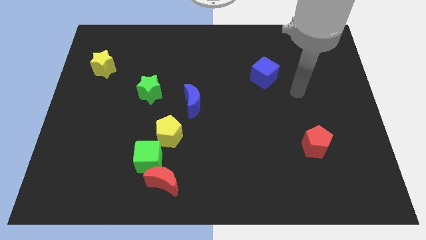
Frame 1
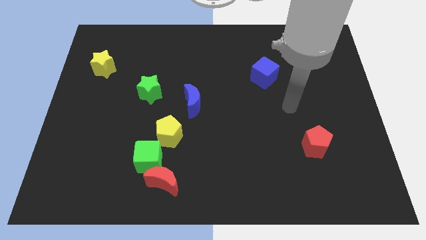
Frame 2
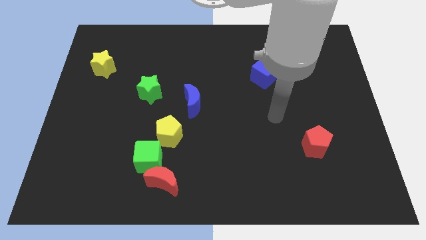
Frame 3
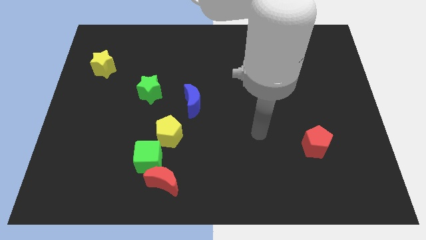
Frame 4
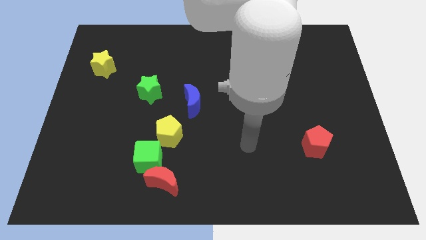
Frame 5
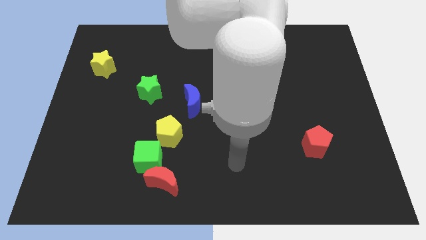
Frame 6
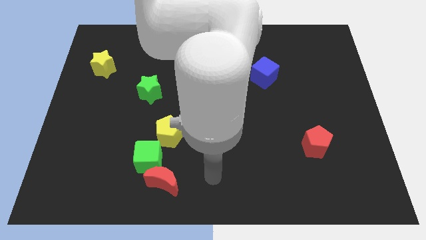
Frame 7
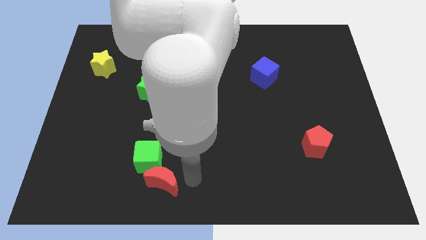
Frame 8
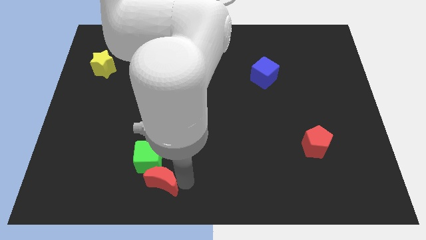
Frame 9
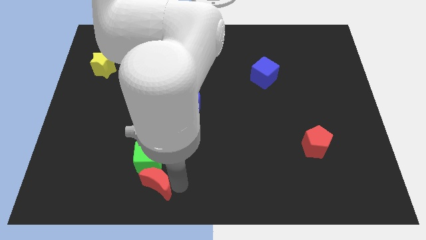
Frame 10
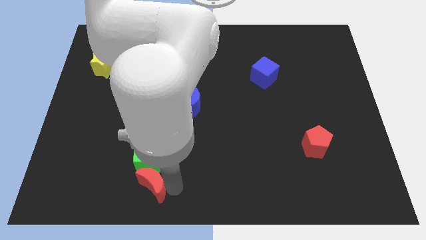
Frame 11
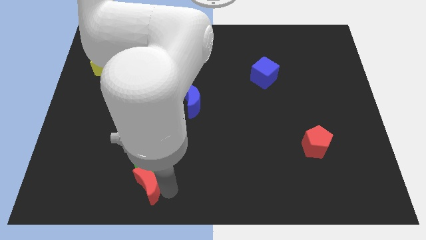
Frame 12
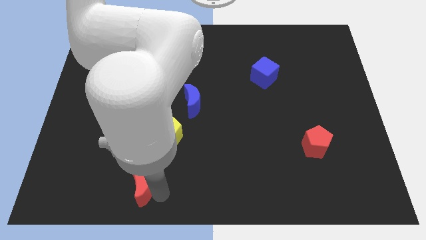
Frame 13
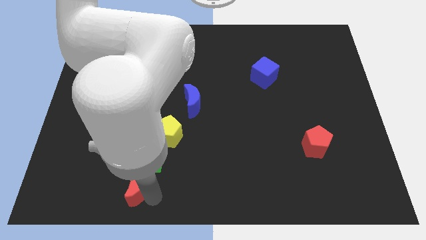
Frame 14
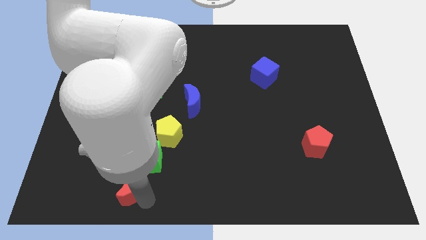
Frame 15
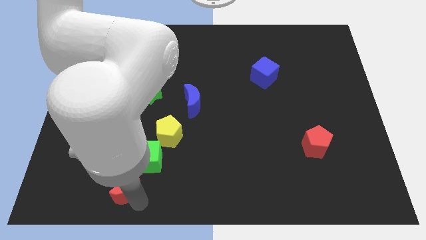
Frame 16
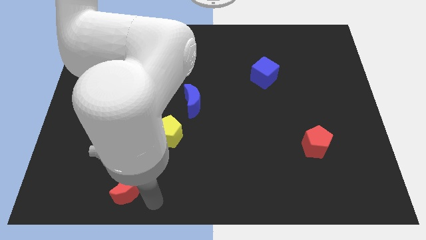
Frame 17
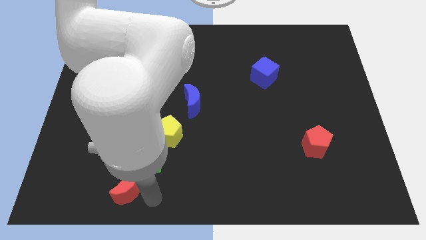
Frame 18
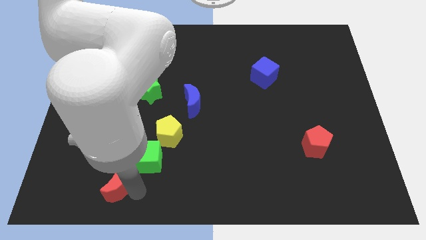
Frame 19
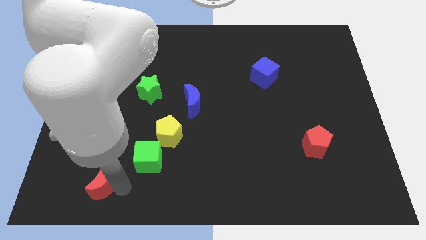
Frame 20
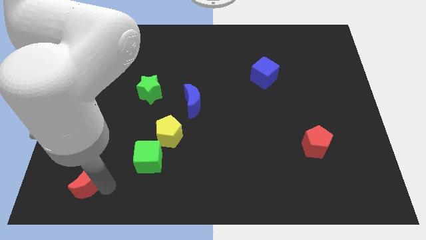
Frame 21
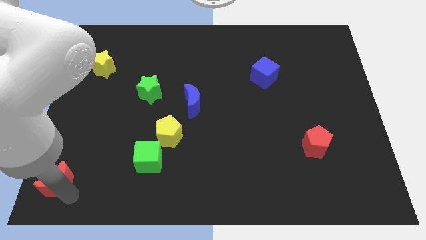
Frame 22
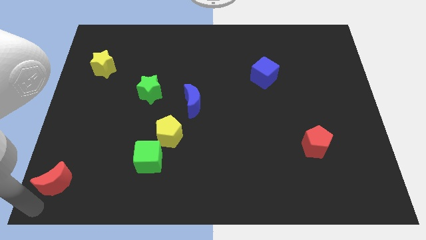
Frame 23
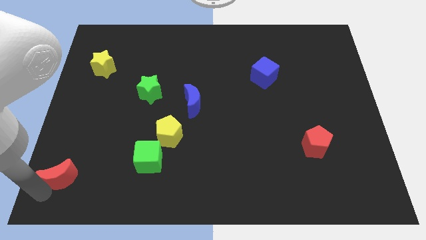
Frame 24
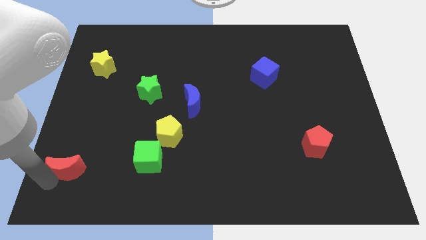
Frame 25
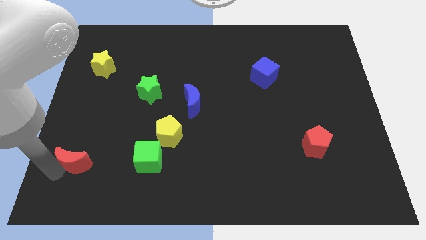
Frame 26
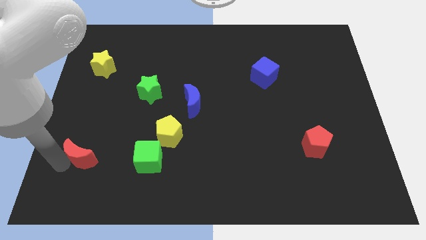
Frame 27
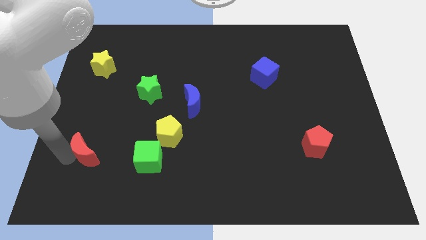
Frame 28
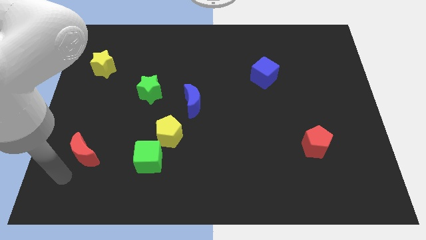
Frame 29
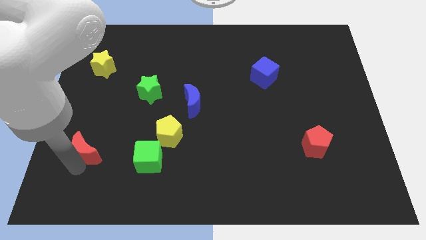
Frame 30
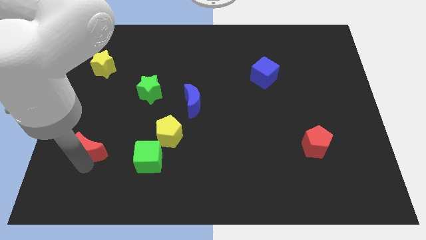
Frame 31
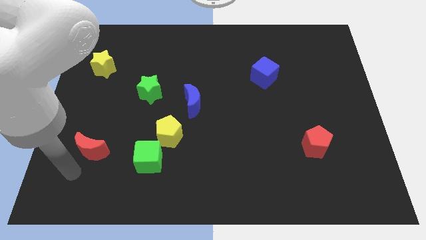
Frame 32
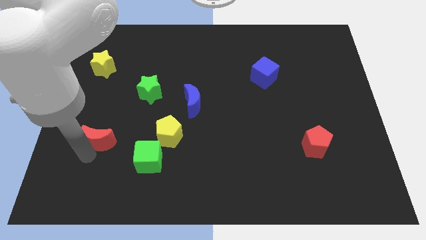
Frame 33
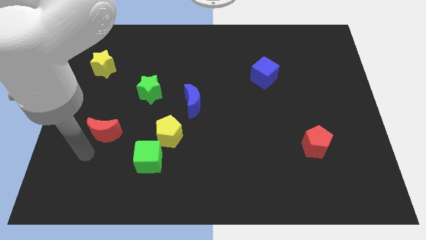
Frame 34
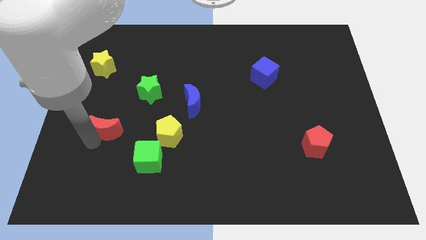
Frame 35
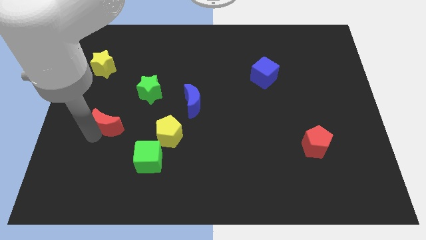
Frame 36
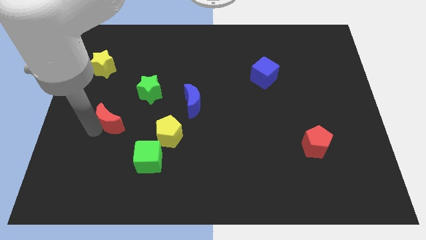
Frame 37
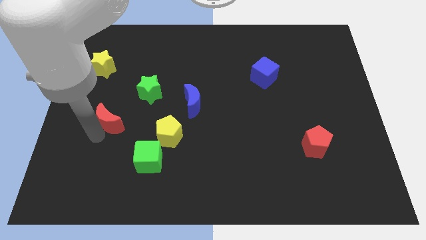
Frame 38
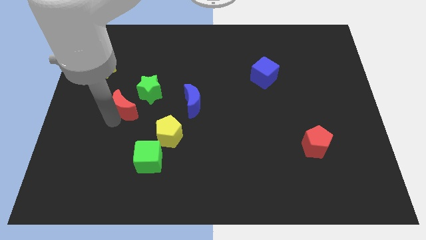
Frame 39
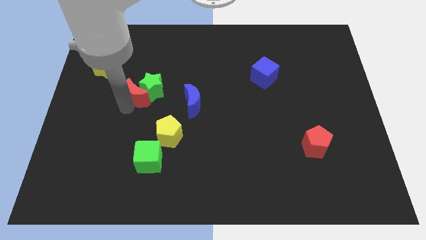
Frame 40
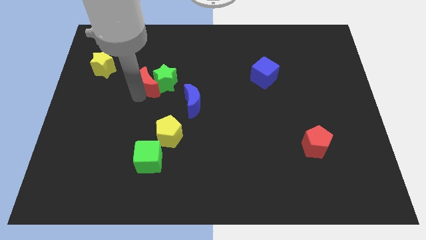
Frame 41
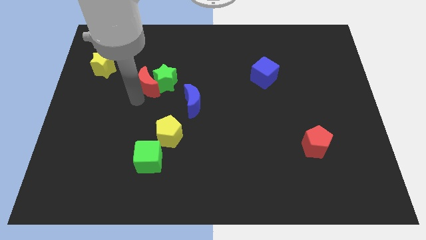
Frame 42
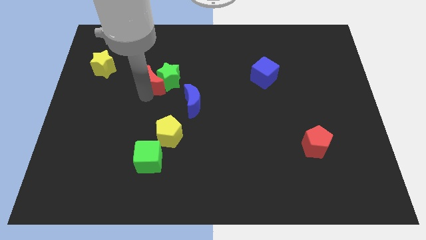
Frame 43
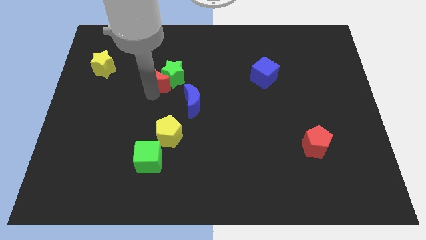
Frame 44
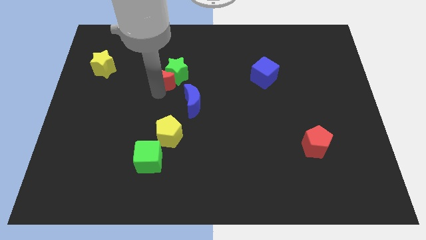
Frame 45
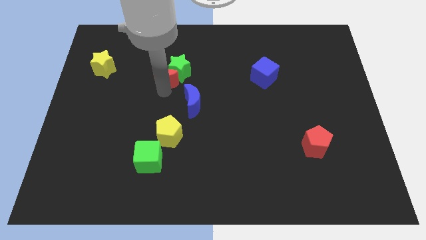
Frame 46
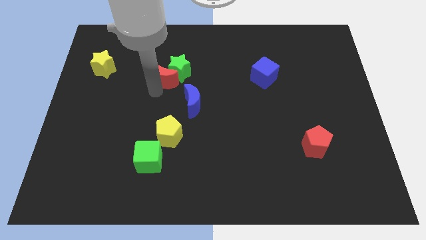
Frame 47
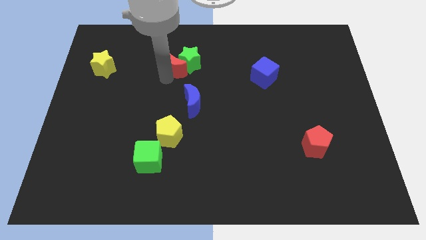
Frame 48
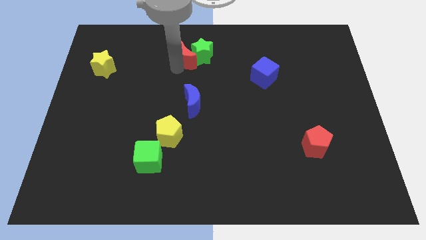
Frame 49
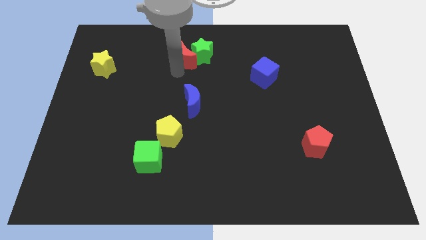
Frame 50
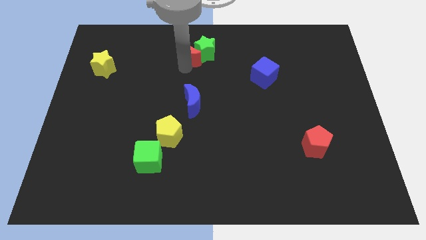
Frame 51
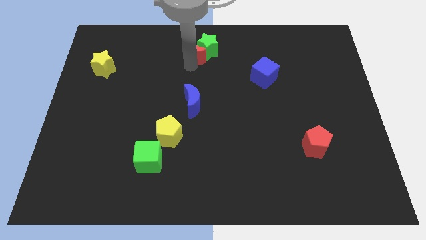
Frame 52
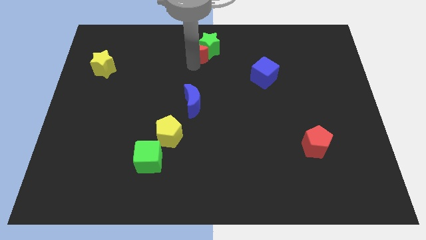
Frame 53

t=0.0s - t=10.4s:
slide the red moon to the towards your base

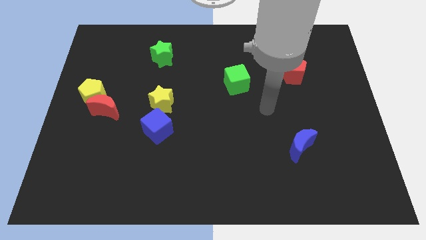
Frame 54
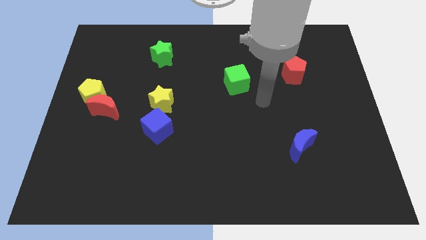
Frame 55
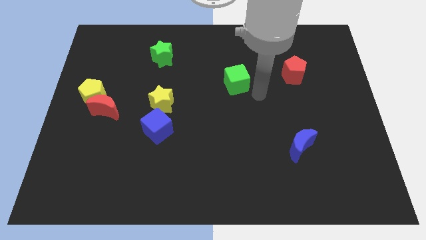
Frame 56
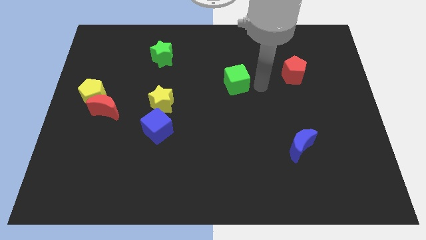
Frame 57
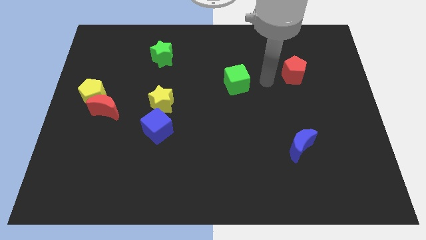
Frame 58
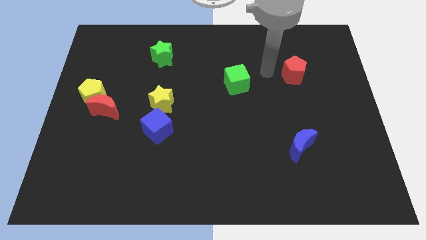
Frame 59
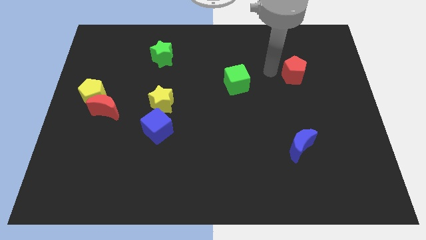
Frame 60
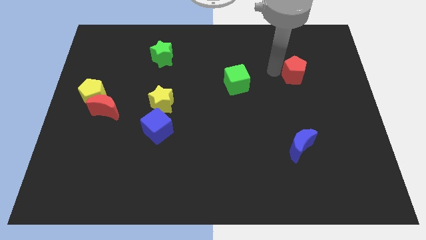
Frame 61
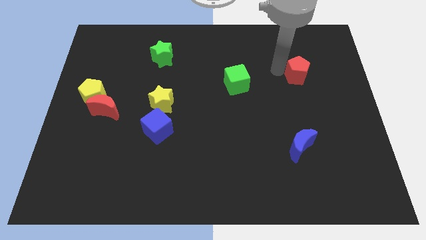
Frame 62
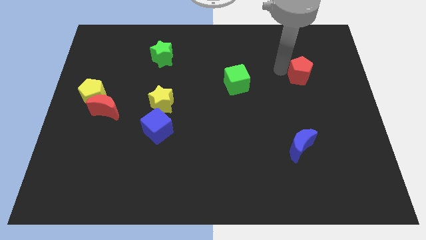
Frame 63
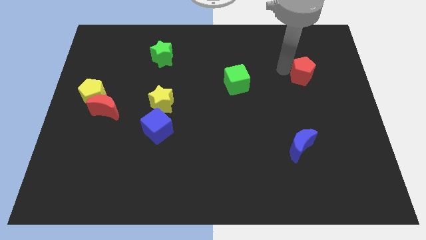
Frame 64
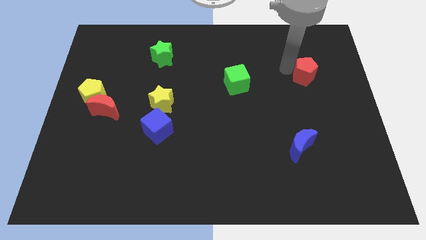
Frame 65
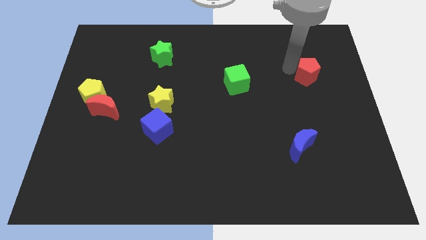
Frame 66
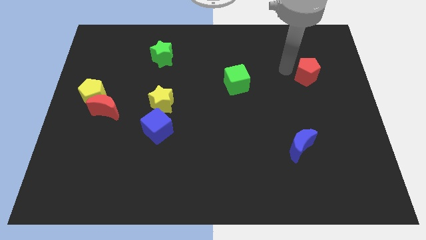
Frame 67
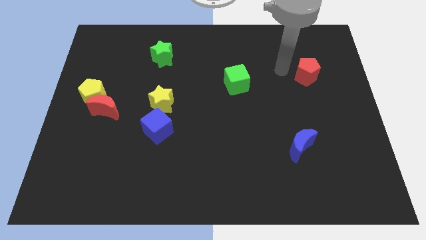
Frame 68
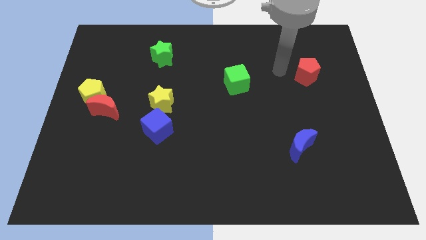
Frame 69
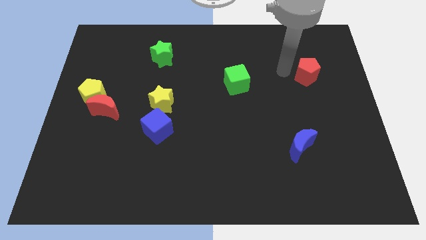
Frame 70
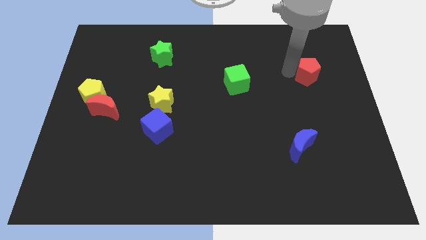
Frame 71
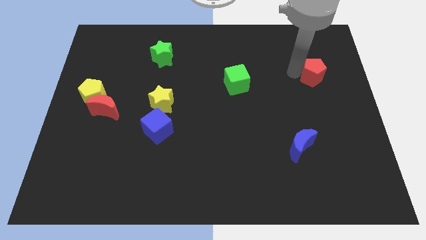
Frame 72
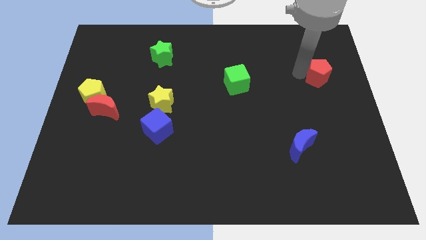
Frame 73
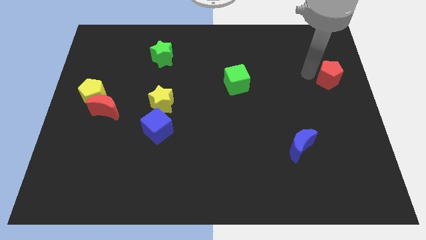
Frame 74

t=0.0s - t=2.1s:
move the red pentagon to the right side of the board
